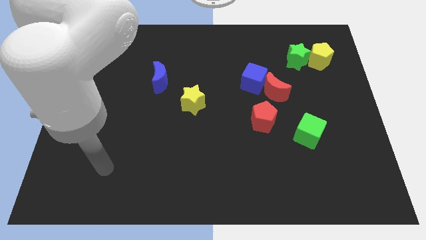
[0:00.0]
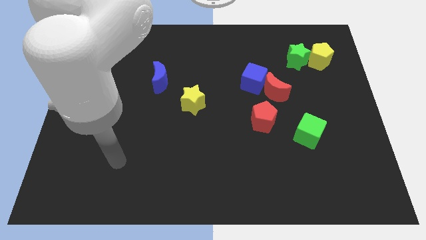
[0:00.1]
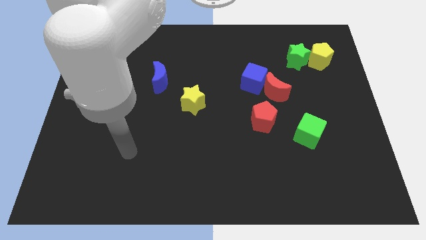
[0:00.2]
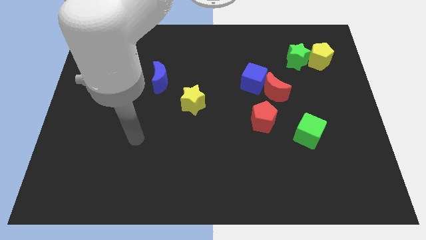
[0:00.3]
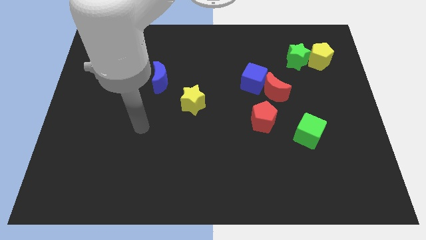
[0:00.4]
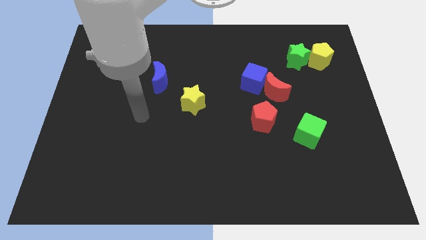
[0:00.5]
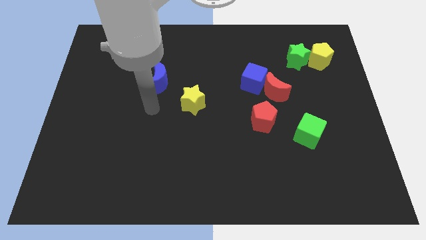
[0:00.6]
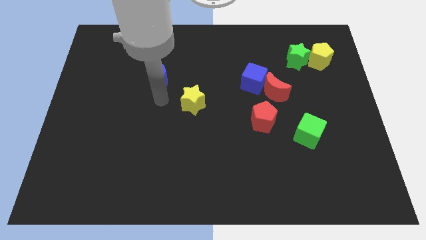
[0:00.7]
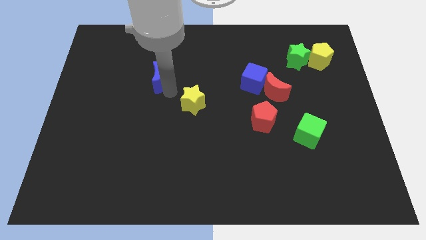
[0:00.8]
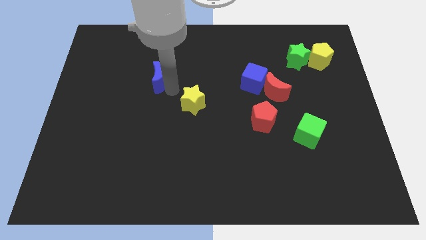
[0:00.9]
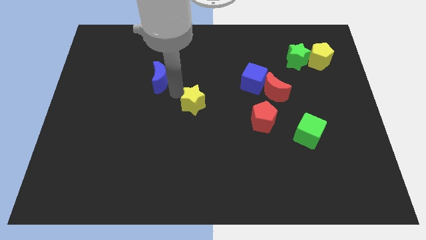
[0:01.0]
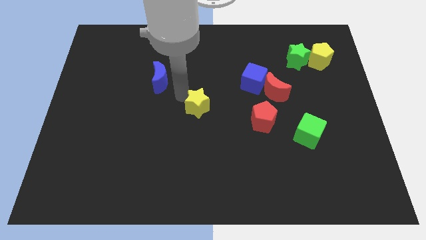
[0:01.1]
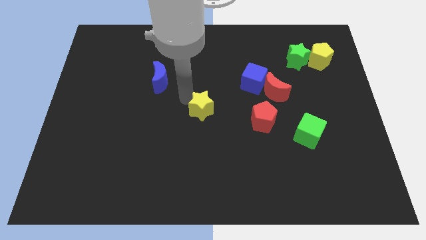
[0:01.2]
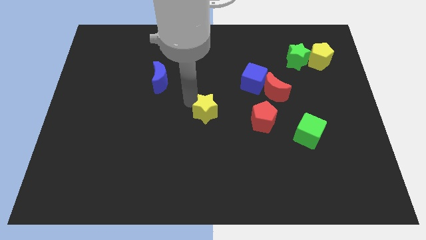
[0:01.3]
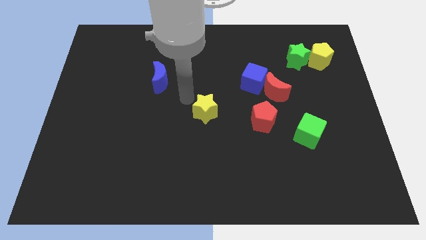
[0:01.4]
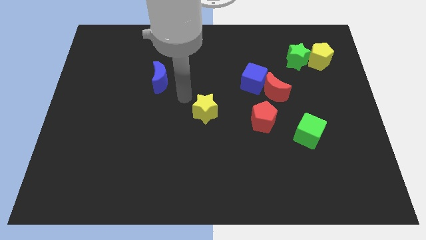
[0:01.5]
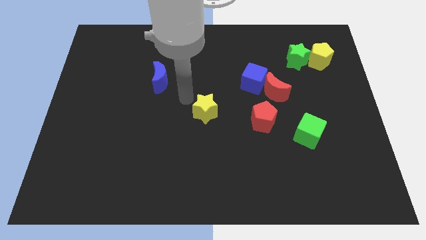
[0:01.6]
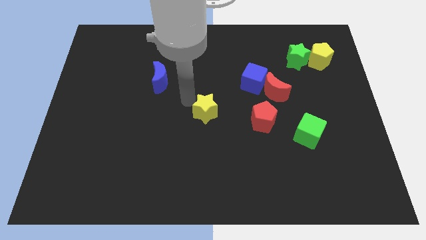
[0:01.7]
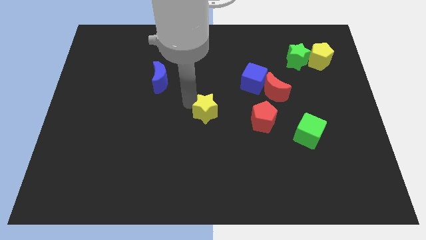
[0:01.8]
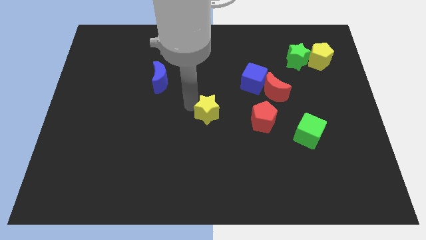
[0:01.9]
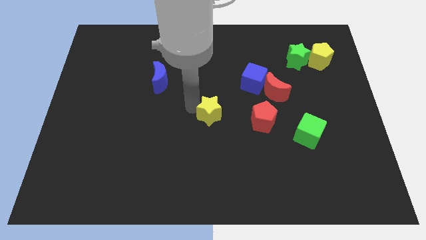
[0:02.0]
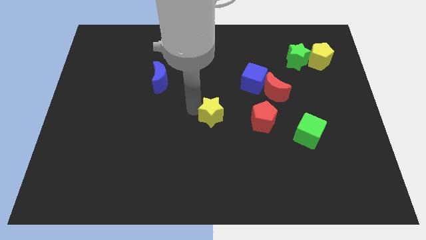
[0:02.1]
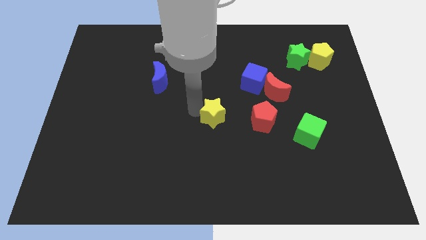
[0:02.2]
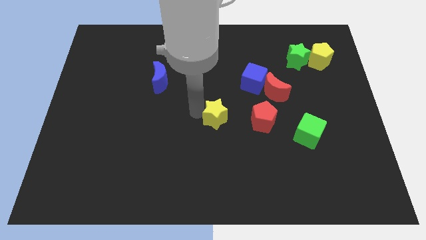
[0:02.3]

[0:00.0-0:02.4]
move the yellow star downwards and then right slightly

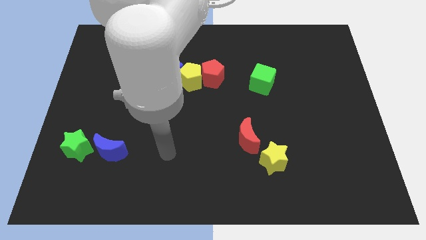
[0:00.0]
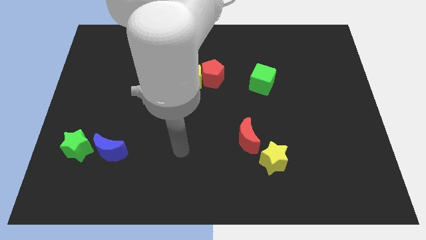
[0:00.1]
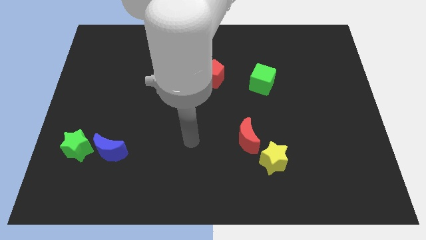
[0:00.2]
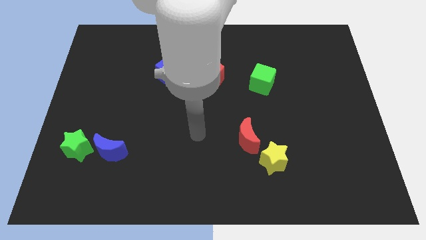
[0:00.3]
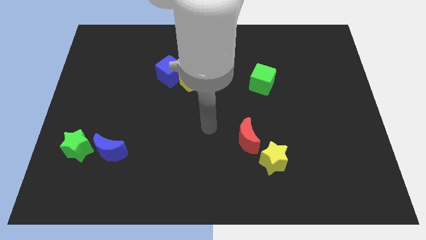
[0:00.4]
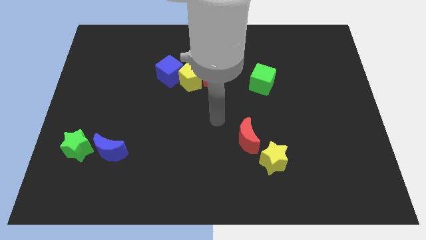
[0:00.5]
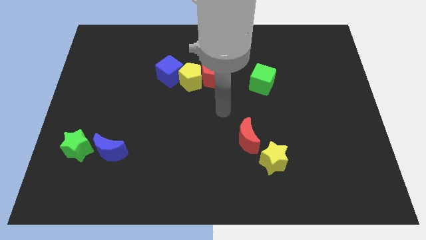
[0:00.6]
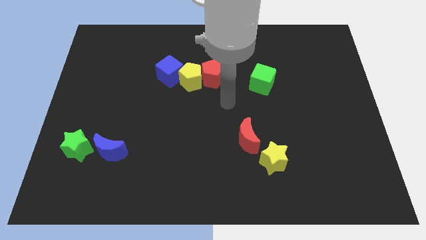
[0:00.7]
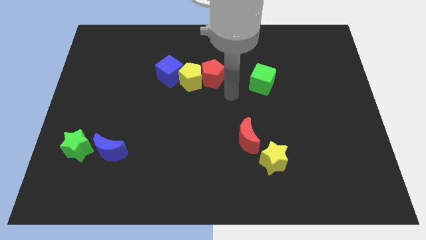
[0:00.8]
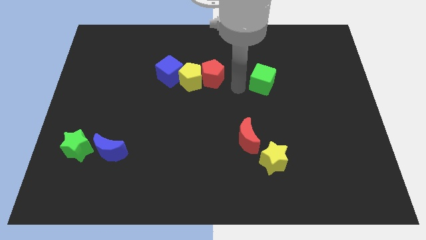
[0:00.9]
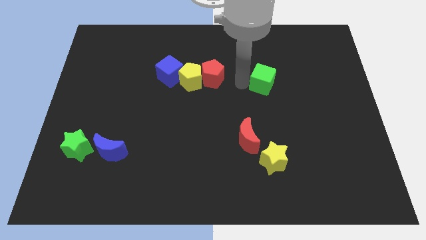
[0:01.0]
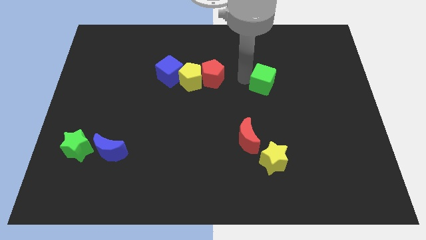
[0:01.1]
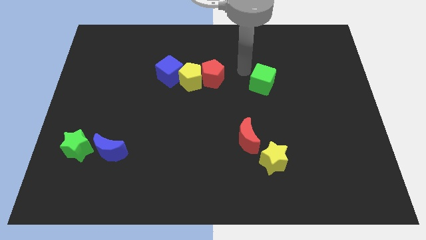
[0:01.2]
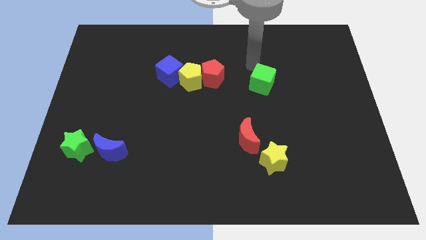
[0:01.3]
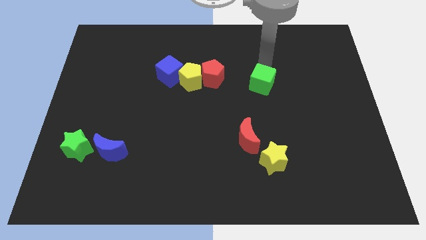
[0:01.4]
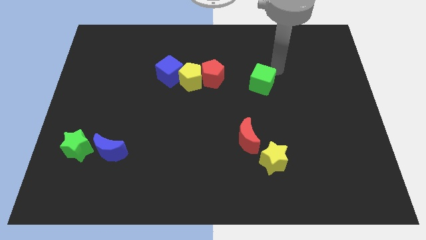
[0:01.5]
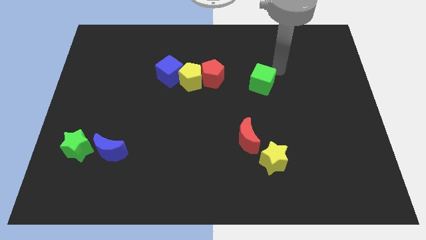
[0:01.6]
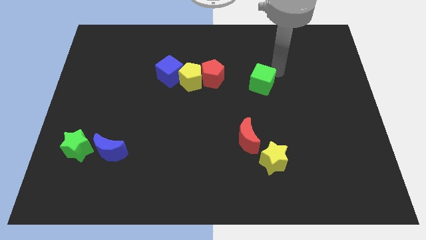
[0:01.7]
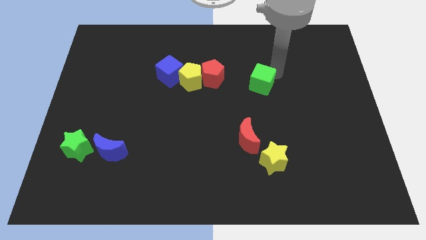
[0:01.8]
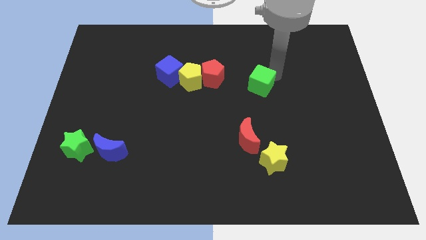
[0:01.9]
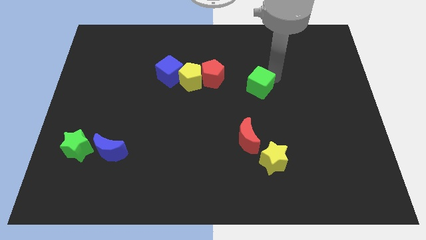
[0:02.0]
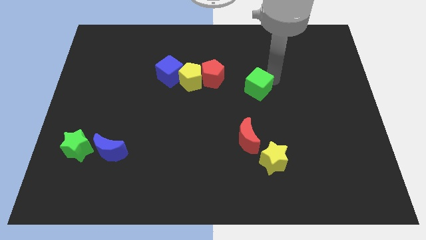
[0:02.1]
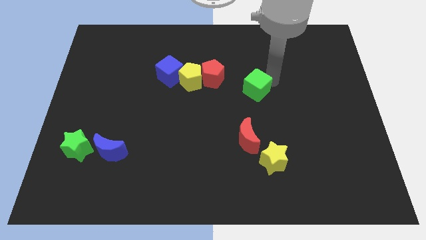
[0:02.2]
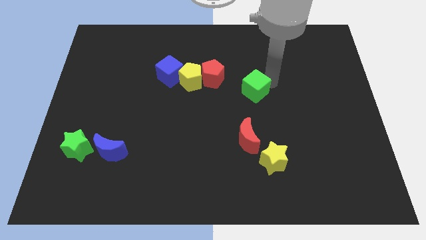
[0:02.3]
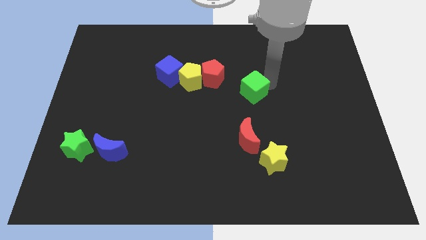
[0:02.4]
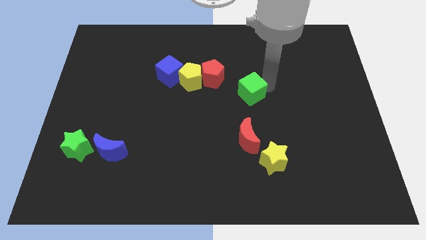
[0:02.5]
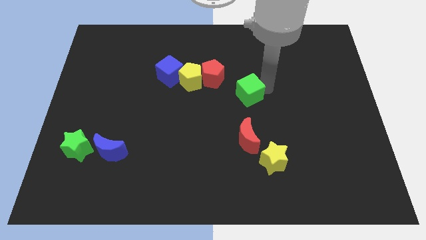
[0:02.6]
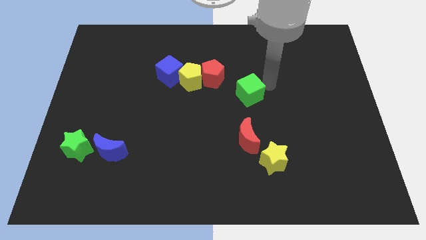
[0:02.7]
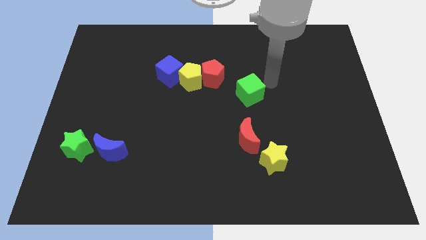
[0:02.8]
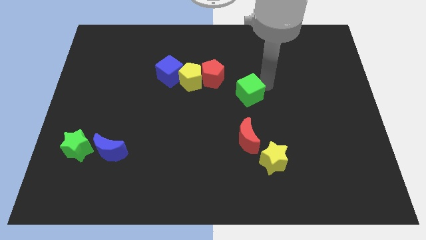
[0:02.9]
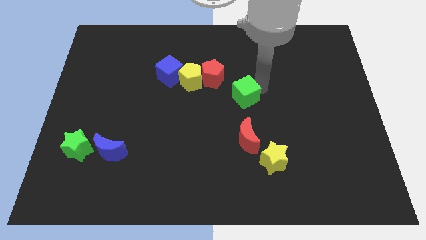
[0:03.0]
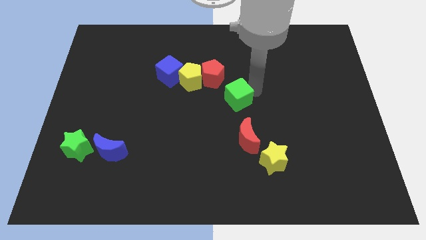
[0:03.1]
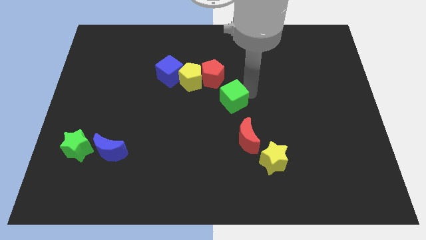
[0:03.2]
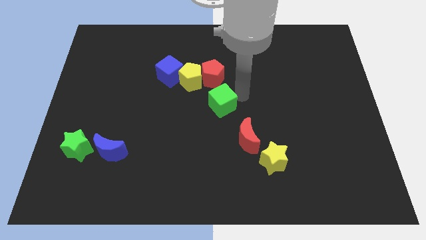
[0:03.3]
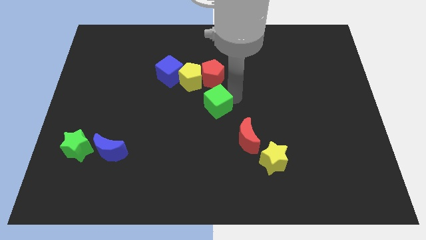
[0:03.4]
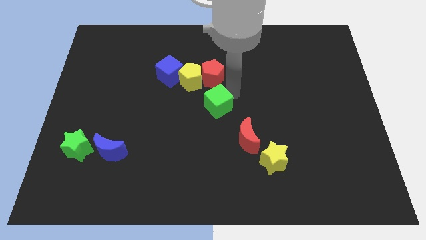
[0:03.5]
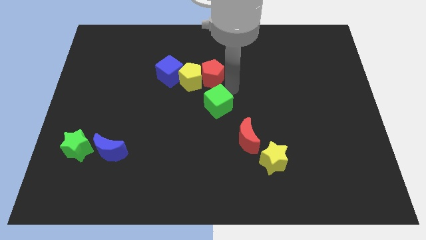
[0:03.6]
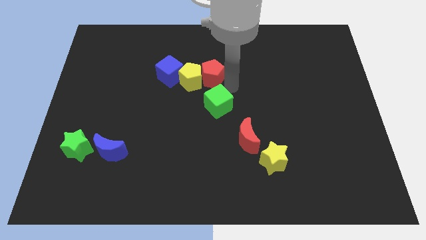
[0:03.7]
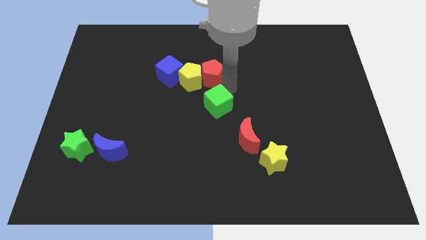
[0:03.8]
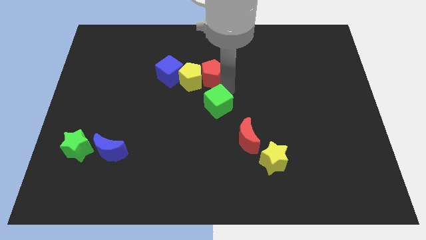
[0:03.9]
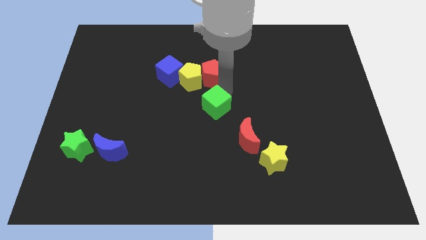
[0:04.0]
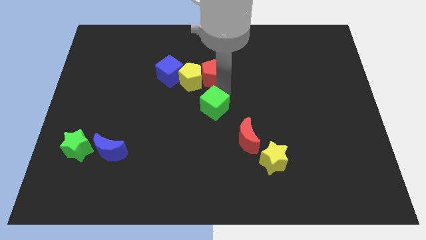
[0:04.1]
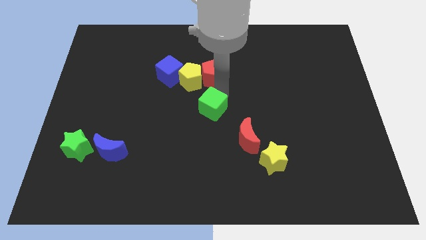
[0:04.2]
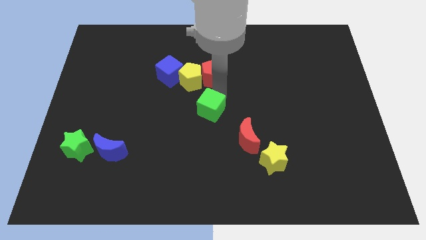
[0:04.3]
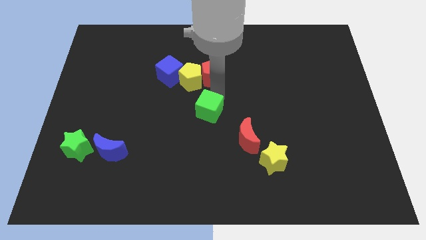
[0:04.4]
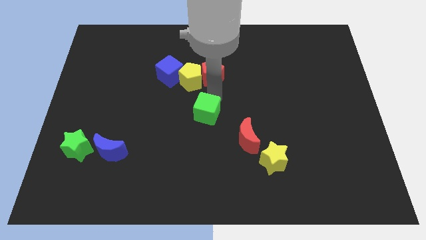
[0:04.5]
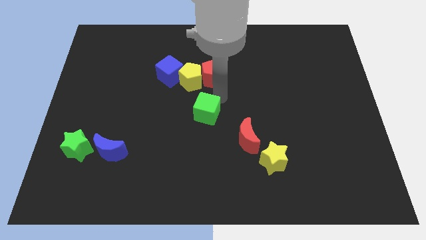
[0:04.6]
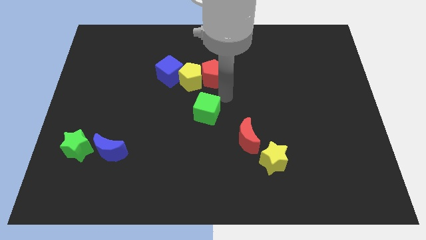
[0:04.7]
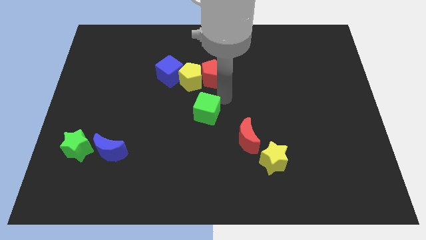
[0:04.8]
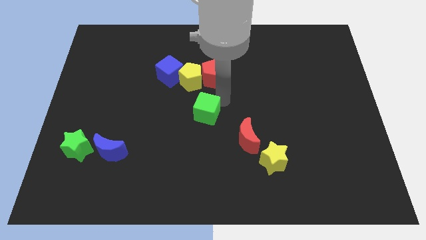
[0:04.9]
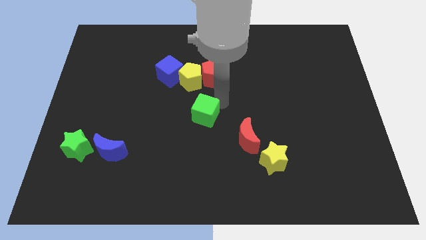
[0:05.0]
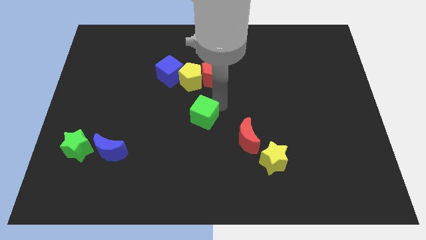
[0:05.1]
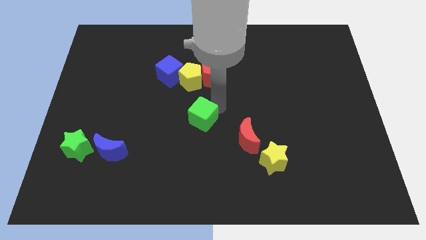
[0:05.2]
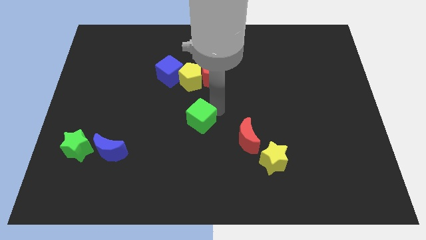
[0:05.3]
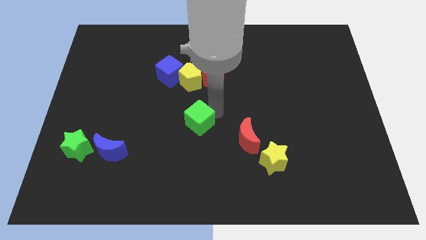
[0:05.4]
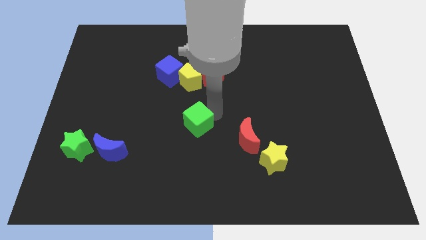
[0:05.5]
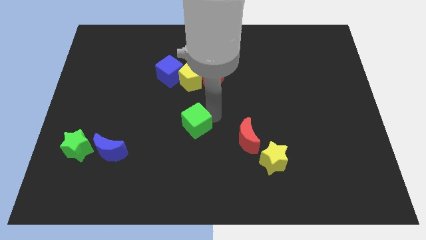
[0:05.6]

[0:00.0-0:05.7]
slide the green cube downwards and to the left diagonally
